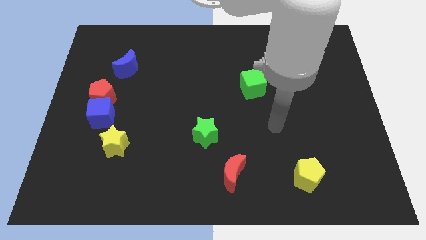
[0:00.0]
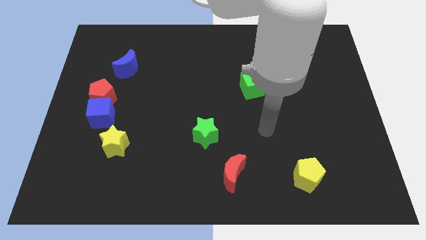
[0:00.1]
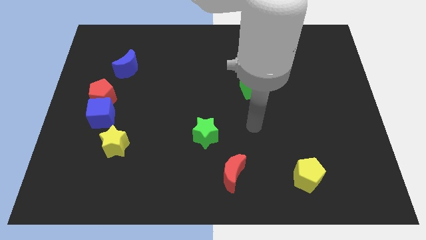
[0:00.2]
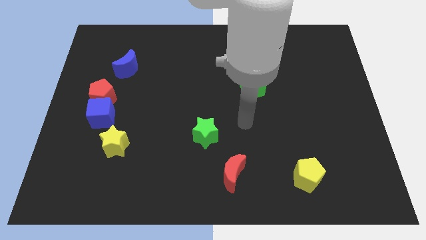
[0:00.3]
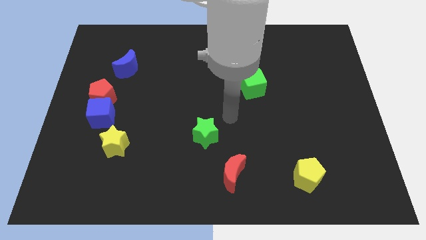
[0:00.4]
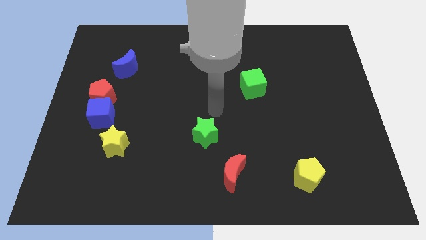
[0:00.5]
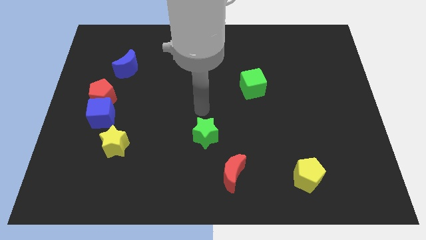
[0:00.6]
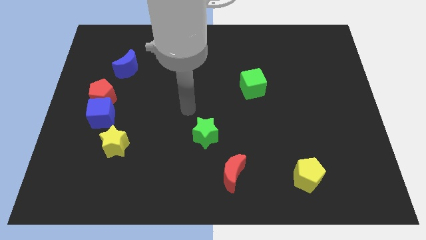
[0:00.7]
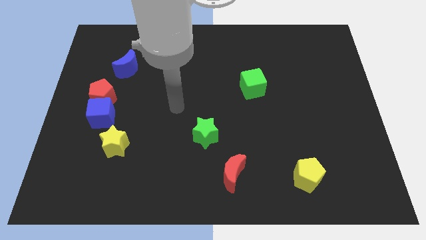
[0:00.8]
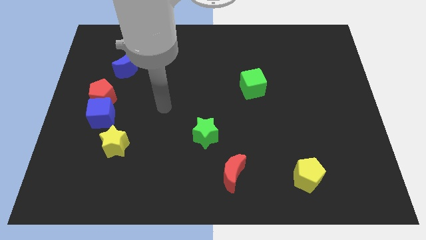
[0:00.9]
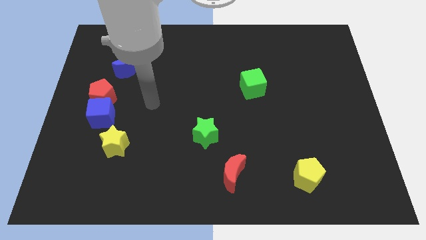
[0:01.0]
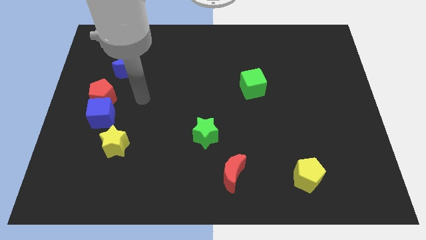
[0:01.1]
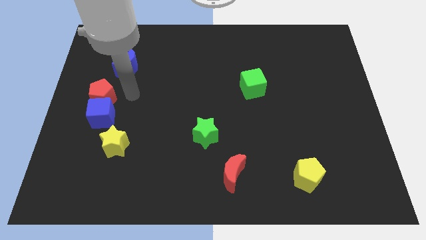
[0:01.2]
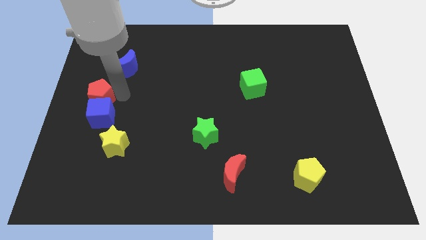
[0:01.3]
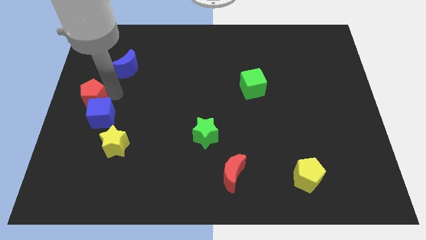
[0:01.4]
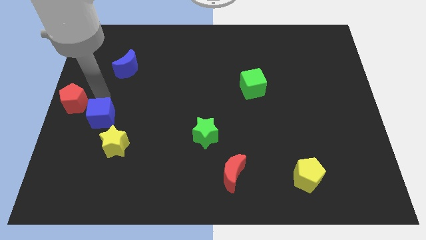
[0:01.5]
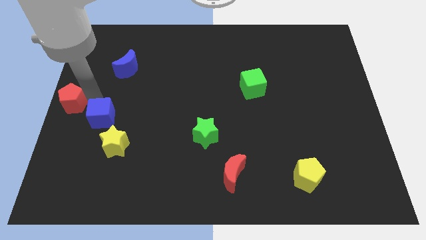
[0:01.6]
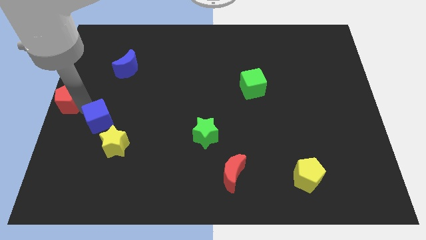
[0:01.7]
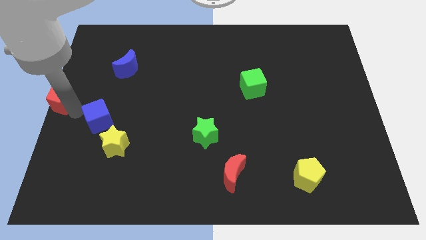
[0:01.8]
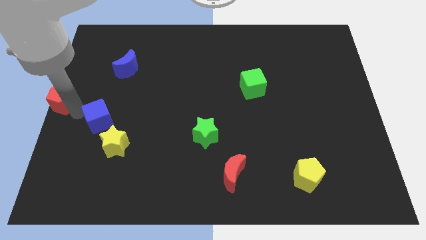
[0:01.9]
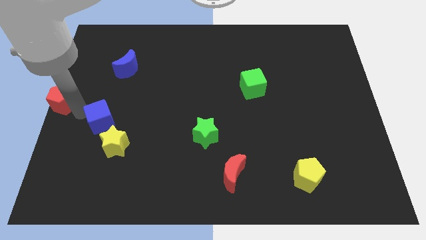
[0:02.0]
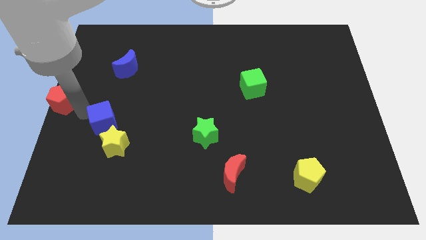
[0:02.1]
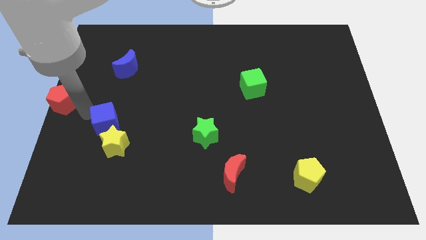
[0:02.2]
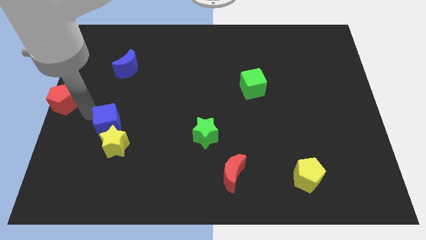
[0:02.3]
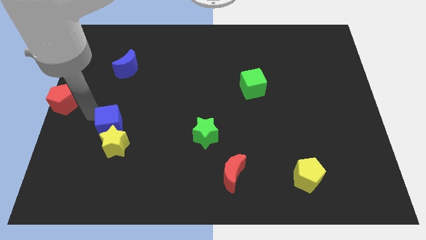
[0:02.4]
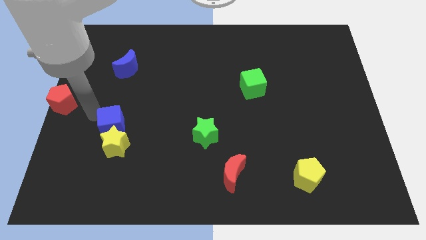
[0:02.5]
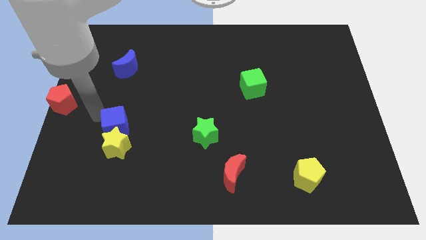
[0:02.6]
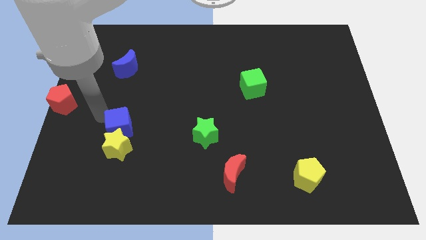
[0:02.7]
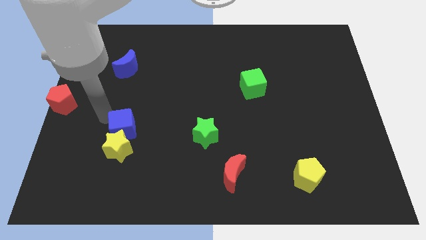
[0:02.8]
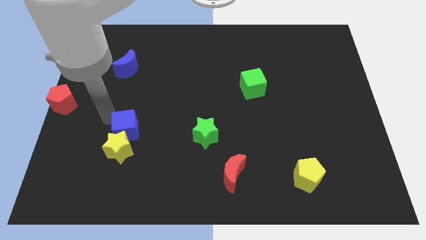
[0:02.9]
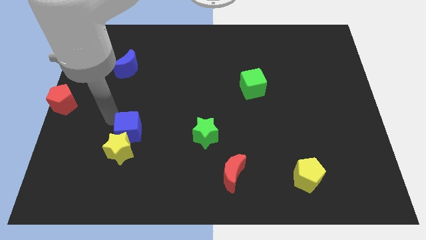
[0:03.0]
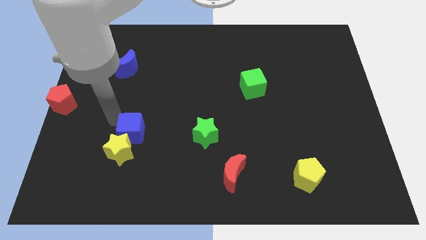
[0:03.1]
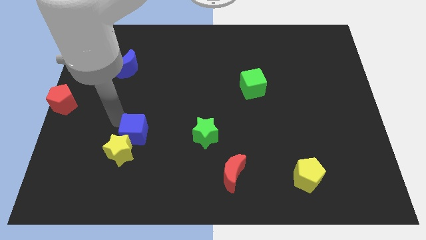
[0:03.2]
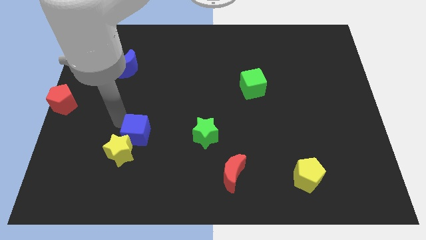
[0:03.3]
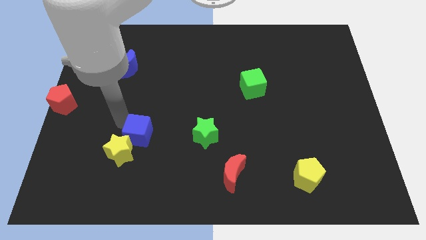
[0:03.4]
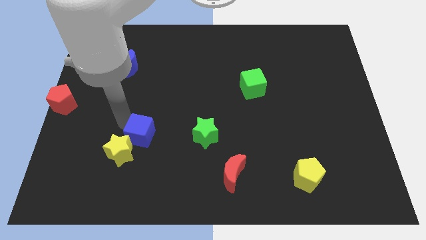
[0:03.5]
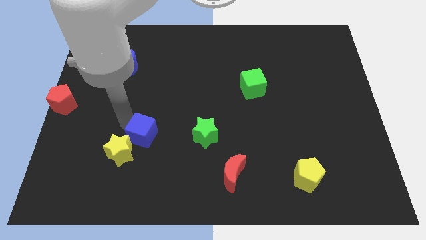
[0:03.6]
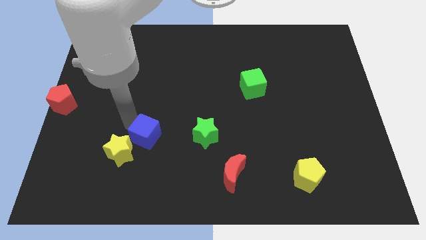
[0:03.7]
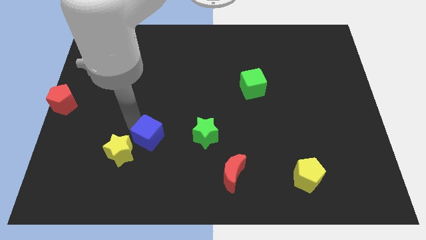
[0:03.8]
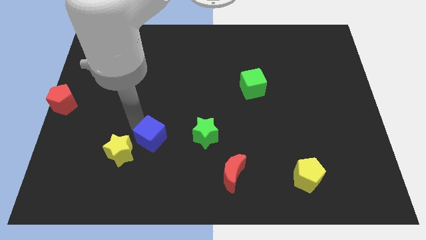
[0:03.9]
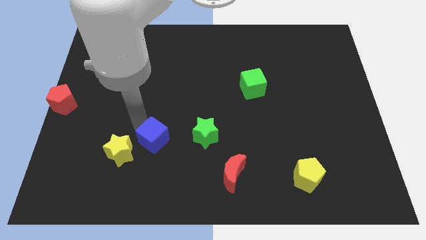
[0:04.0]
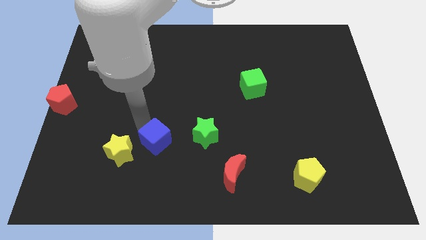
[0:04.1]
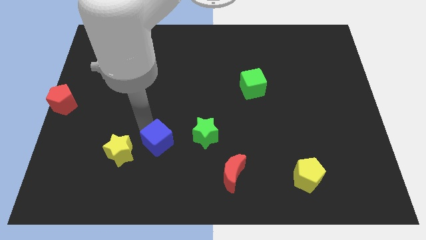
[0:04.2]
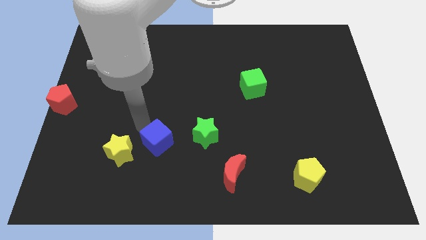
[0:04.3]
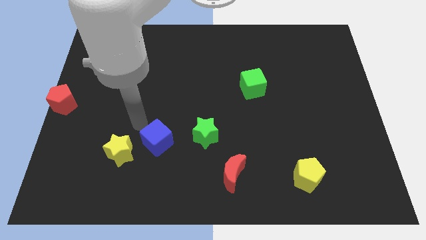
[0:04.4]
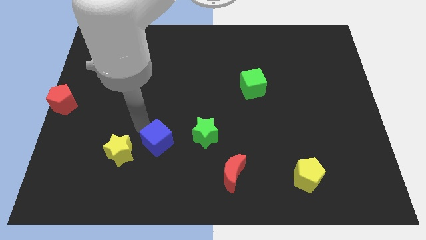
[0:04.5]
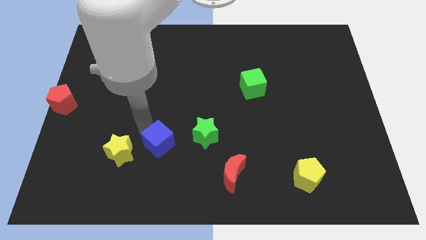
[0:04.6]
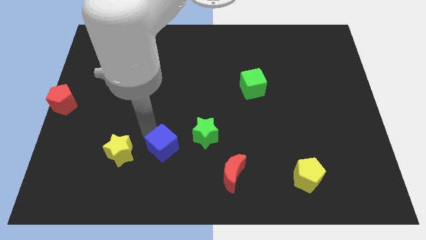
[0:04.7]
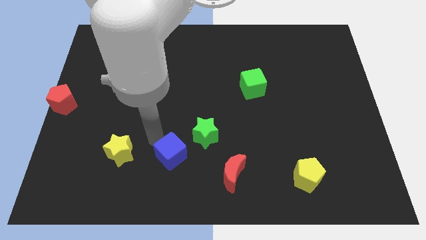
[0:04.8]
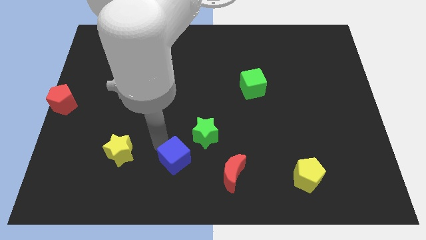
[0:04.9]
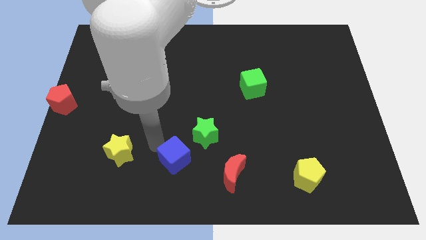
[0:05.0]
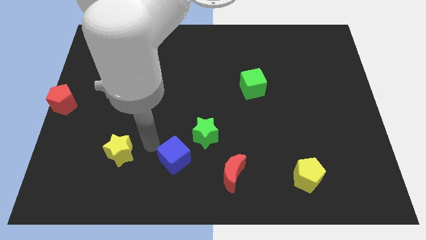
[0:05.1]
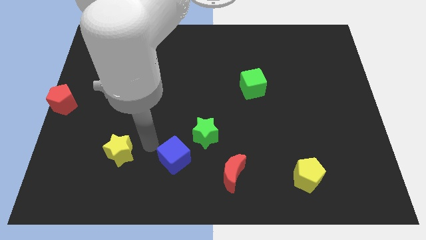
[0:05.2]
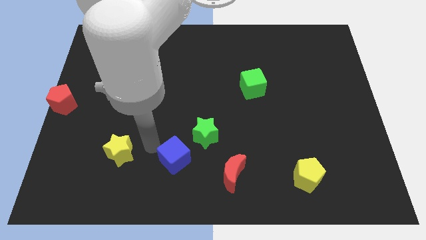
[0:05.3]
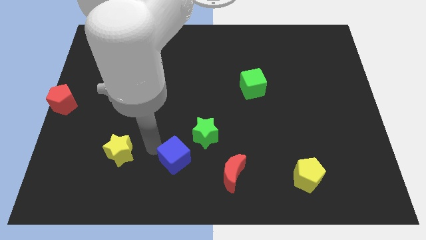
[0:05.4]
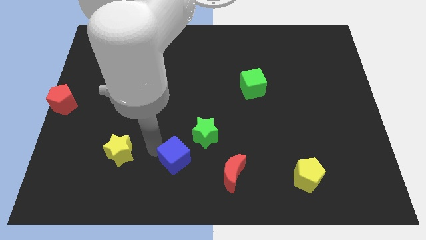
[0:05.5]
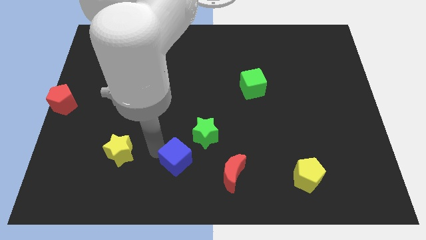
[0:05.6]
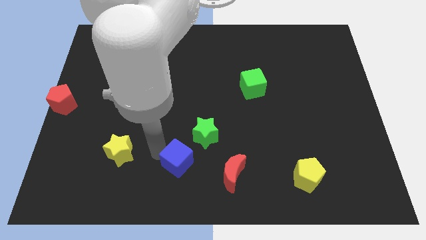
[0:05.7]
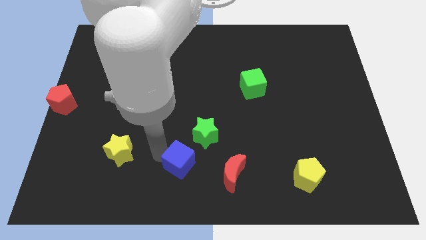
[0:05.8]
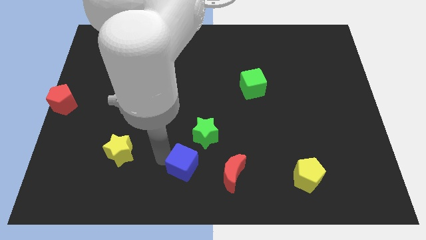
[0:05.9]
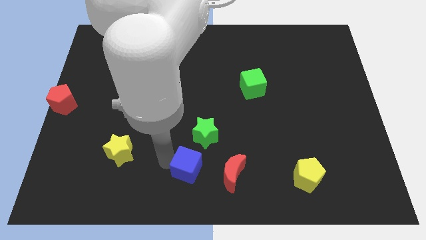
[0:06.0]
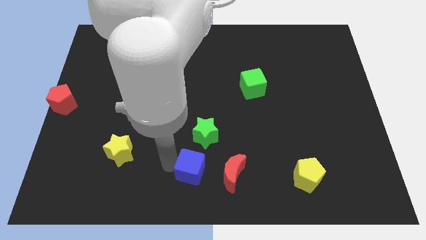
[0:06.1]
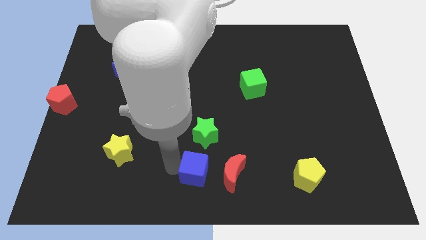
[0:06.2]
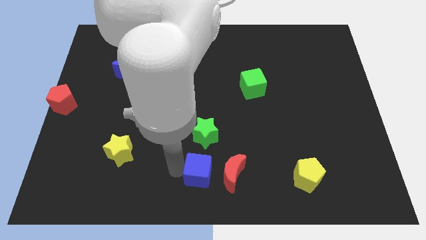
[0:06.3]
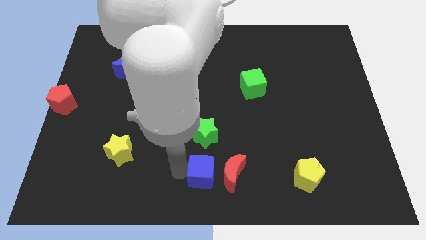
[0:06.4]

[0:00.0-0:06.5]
slide the blue cube close to the red moon

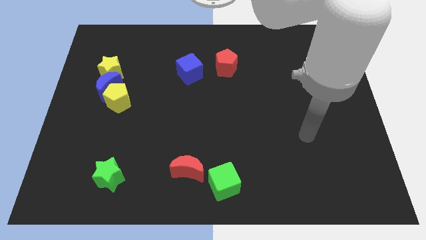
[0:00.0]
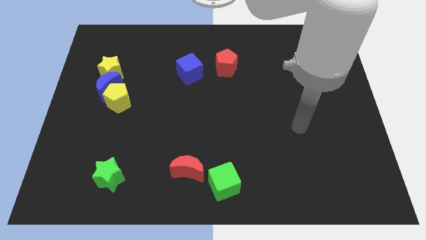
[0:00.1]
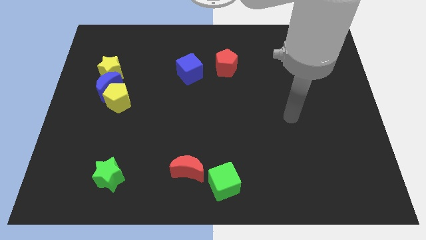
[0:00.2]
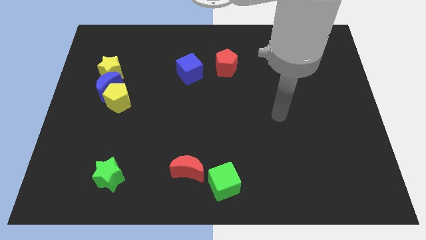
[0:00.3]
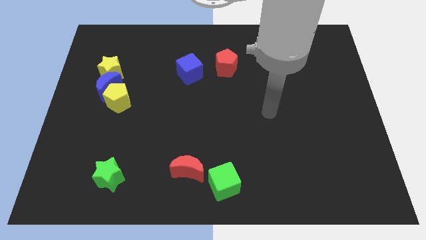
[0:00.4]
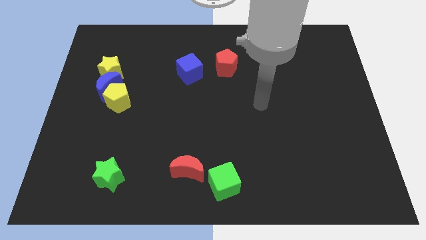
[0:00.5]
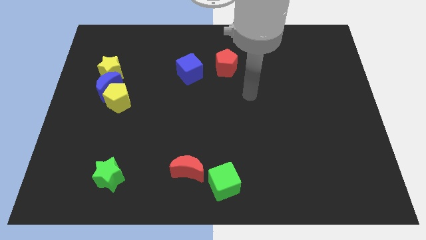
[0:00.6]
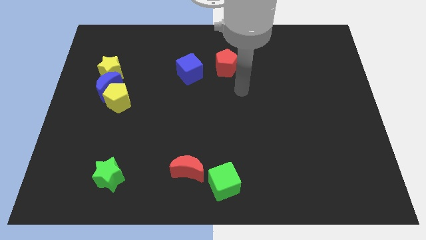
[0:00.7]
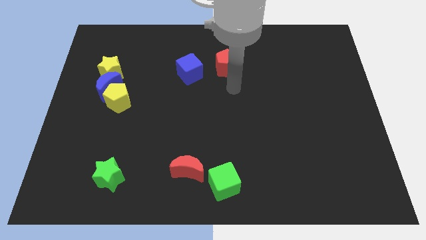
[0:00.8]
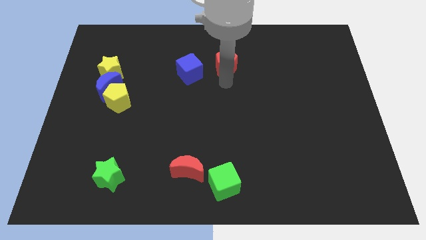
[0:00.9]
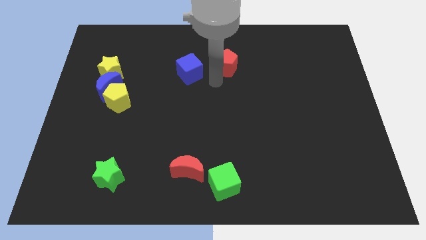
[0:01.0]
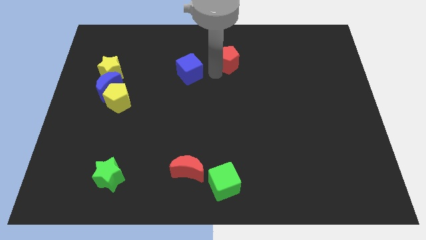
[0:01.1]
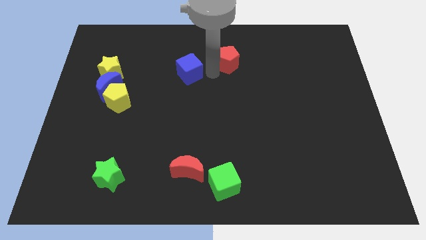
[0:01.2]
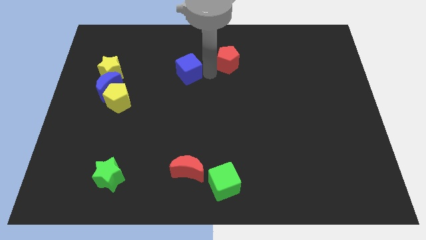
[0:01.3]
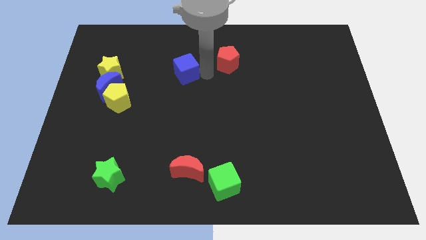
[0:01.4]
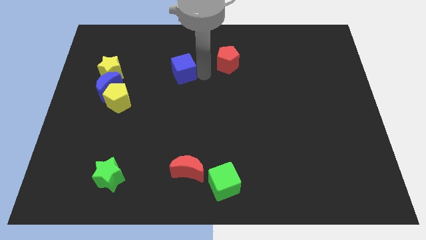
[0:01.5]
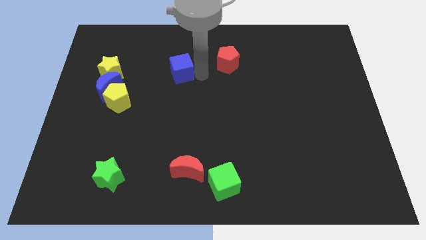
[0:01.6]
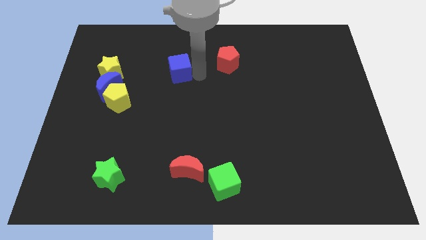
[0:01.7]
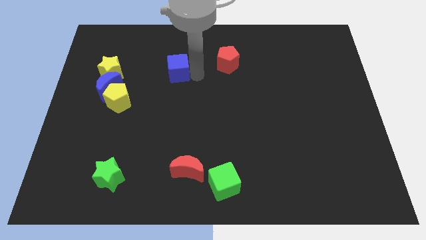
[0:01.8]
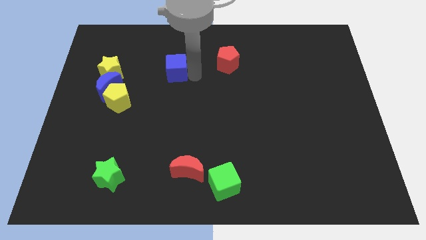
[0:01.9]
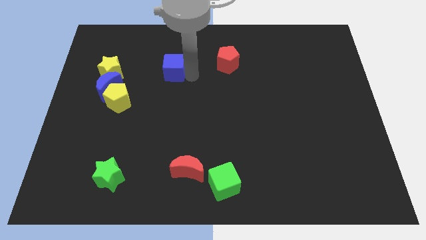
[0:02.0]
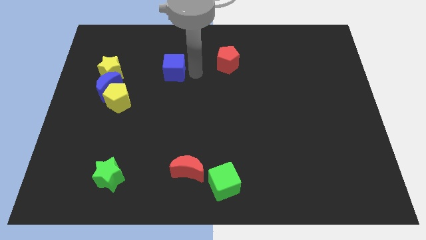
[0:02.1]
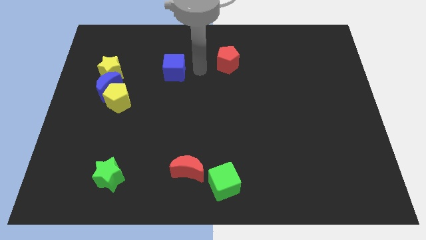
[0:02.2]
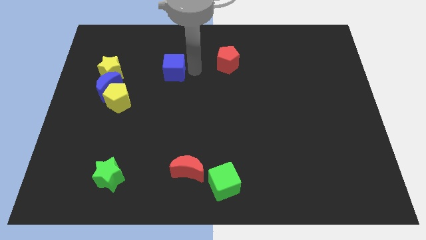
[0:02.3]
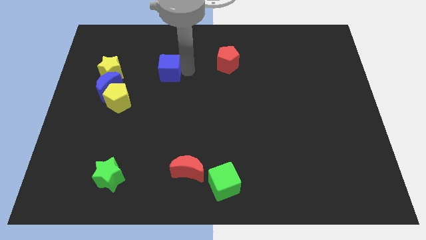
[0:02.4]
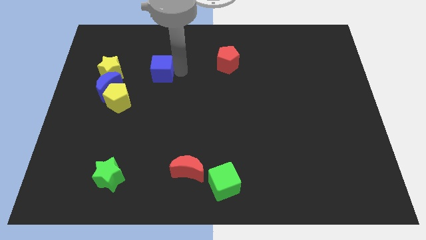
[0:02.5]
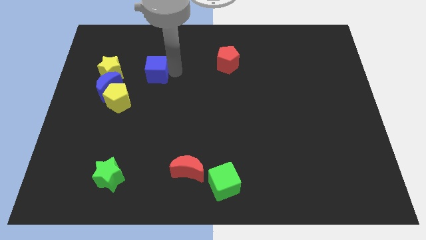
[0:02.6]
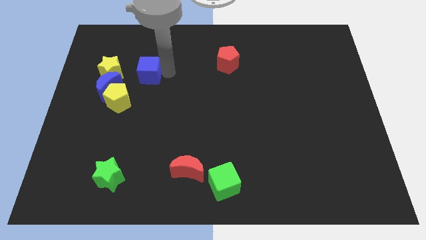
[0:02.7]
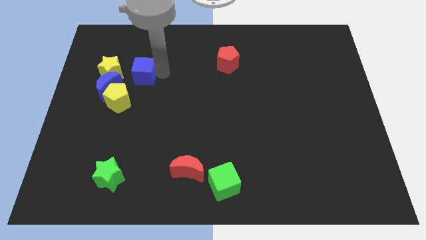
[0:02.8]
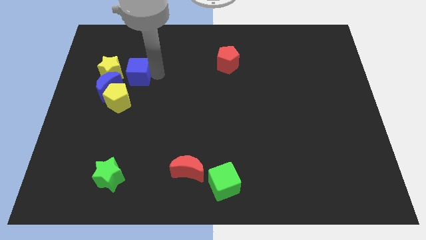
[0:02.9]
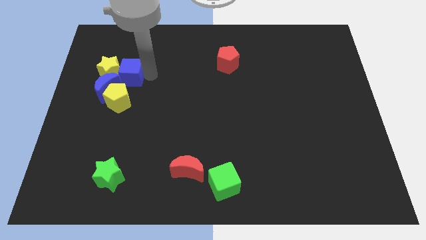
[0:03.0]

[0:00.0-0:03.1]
put the blue cube towards the yellow star
